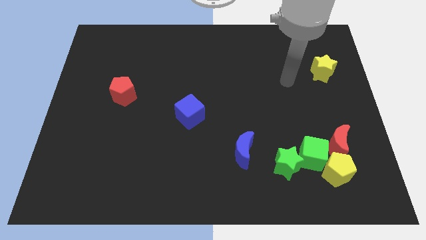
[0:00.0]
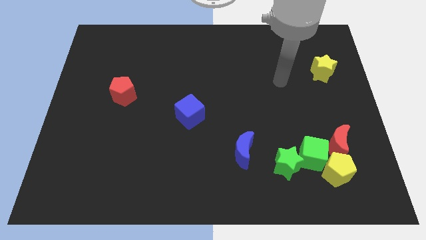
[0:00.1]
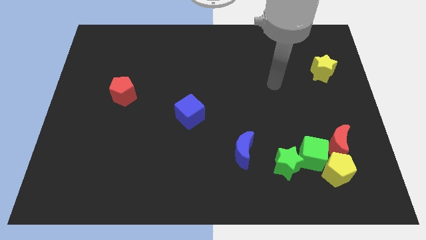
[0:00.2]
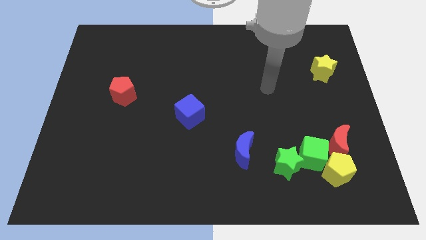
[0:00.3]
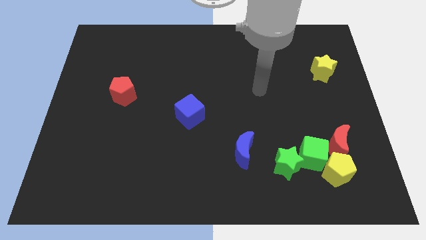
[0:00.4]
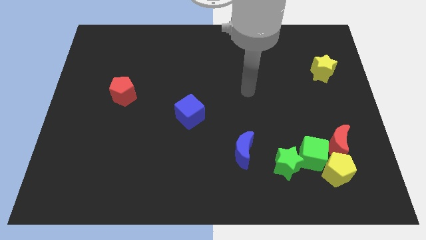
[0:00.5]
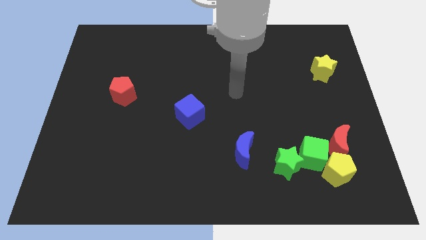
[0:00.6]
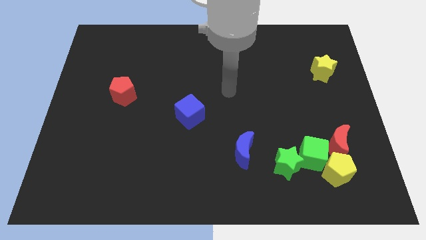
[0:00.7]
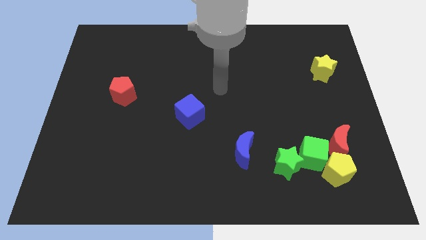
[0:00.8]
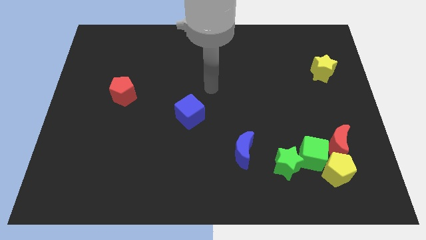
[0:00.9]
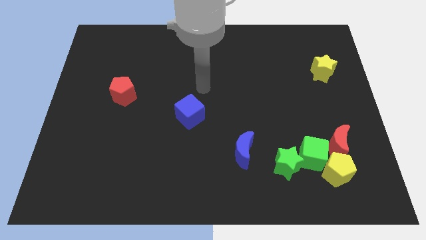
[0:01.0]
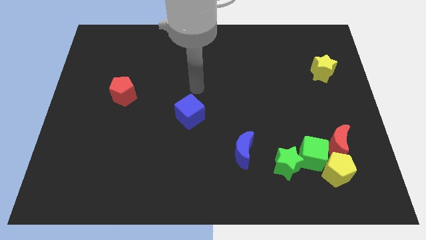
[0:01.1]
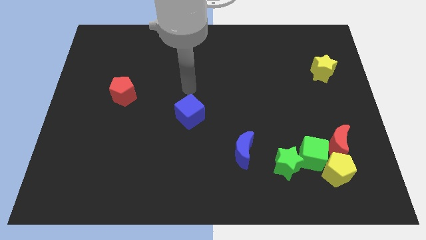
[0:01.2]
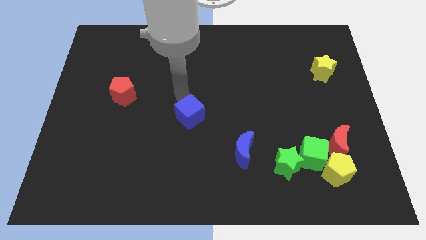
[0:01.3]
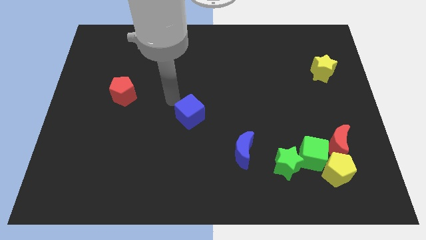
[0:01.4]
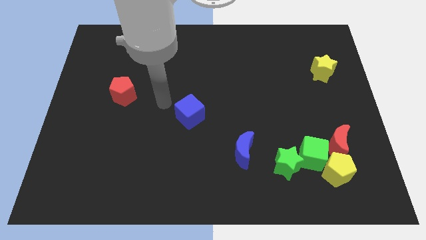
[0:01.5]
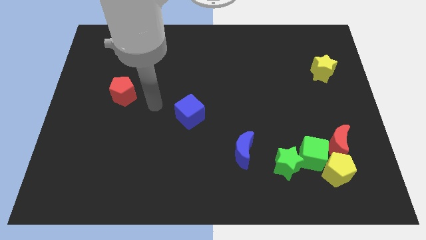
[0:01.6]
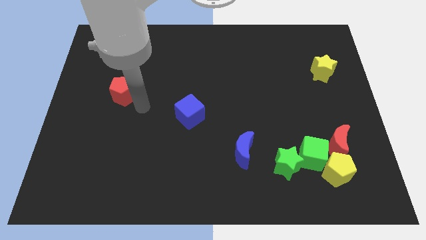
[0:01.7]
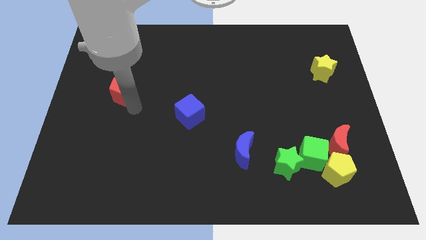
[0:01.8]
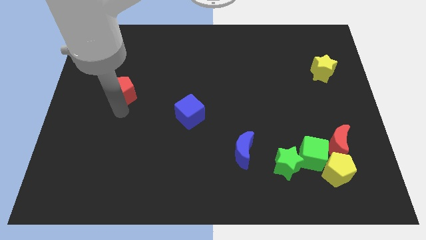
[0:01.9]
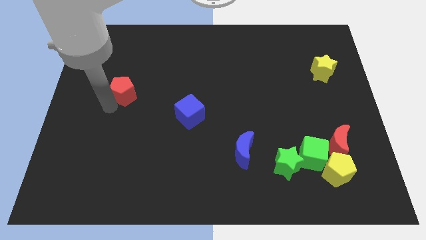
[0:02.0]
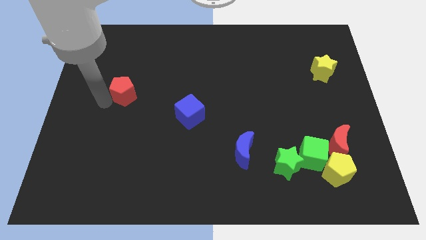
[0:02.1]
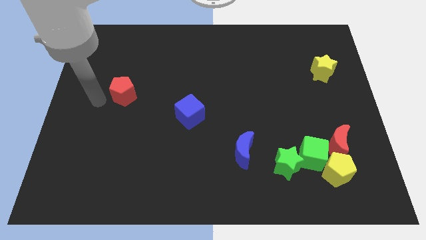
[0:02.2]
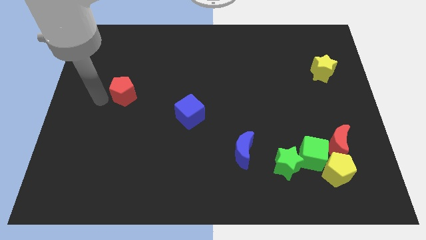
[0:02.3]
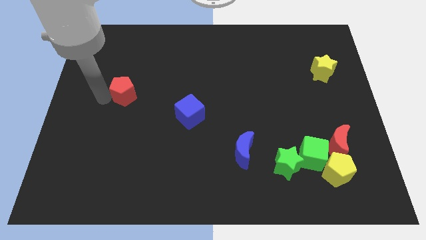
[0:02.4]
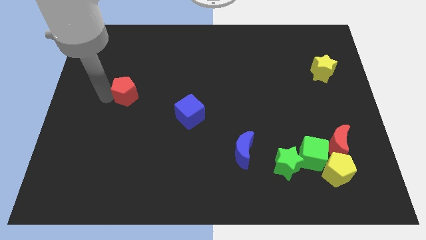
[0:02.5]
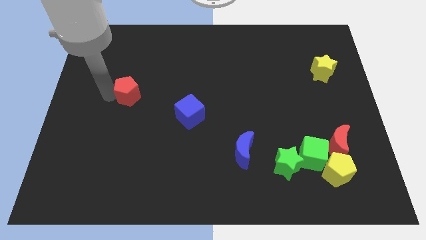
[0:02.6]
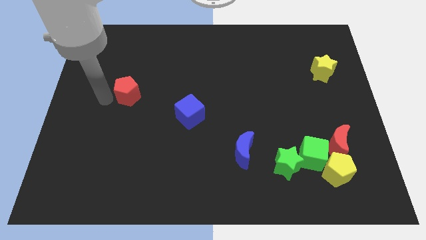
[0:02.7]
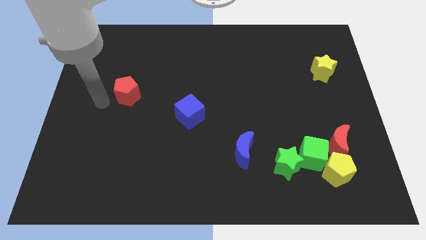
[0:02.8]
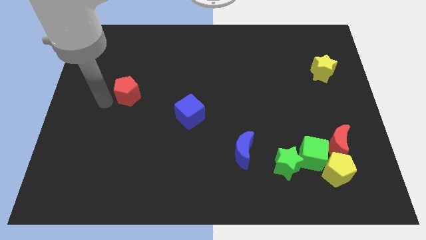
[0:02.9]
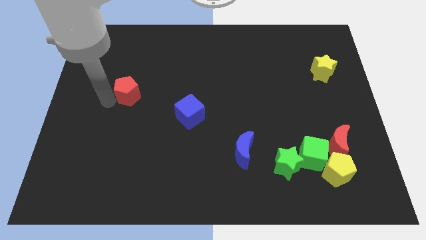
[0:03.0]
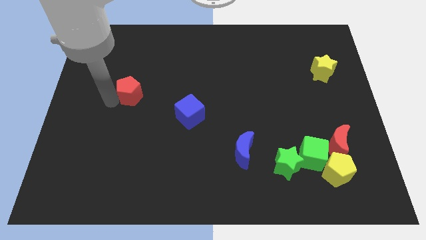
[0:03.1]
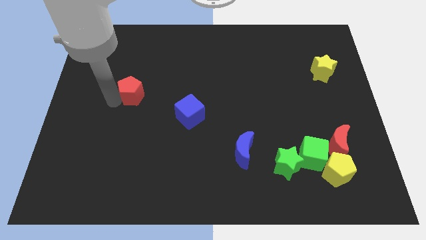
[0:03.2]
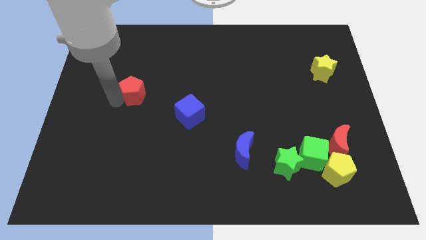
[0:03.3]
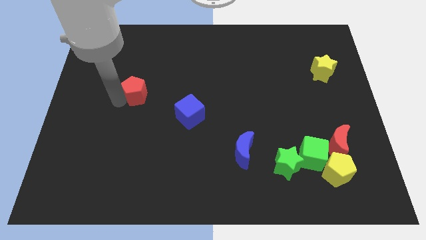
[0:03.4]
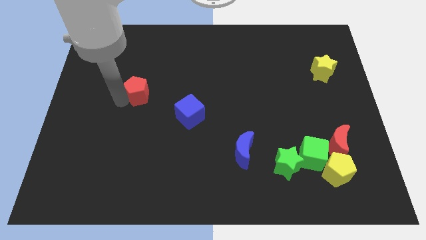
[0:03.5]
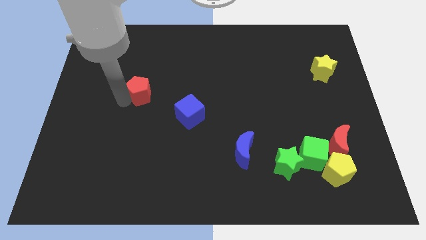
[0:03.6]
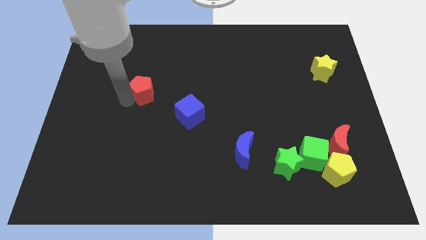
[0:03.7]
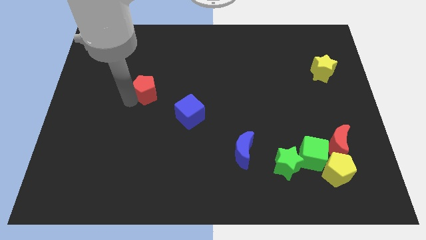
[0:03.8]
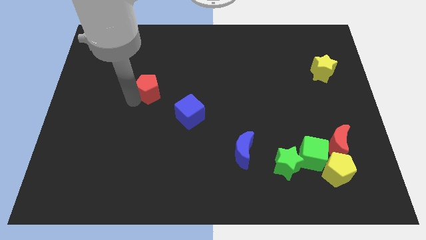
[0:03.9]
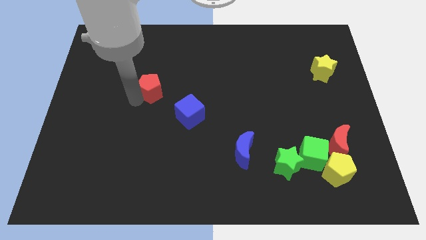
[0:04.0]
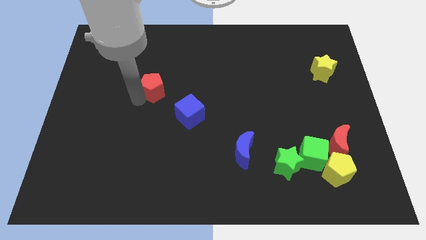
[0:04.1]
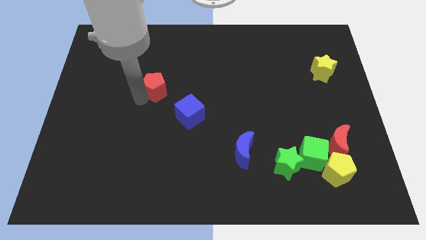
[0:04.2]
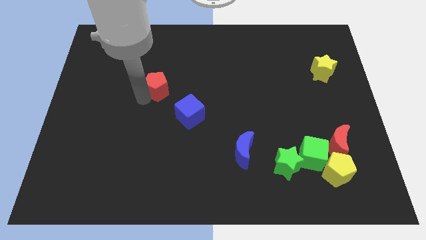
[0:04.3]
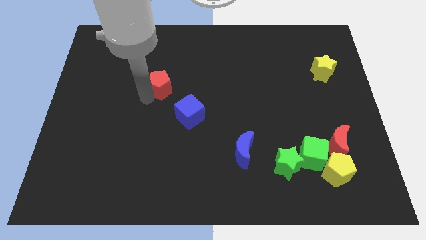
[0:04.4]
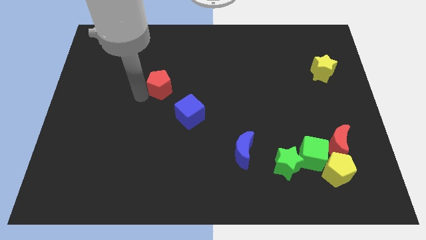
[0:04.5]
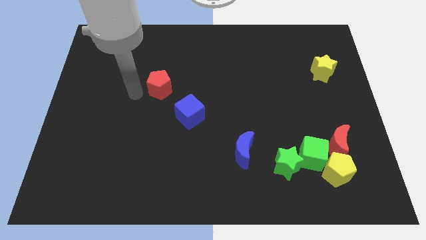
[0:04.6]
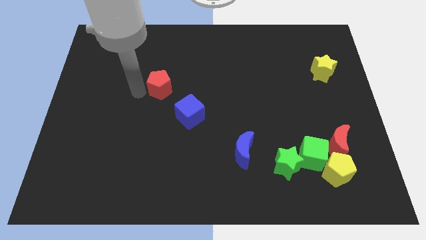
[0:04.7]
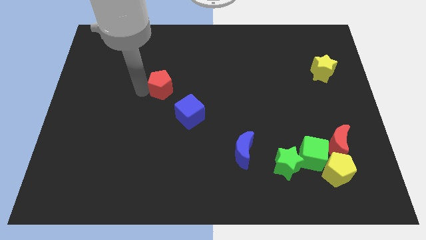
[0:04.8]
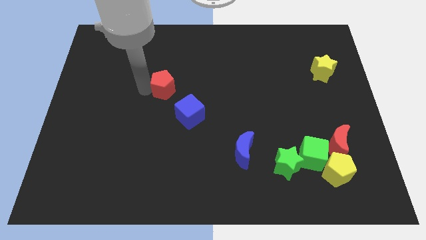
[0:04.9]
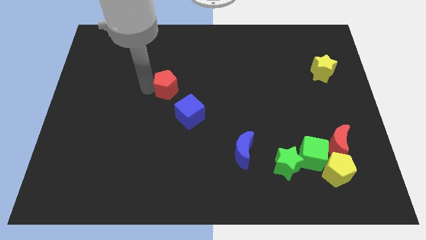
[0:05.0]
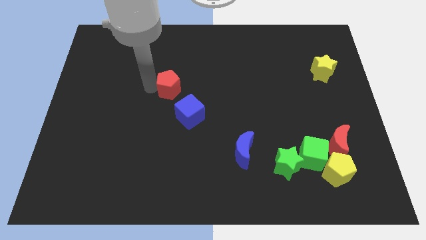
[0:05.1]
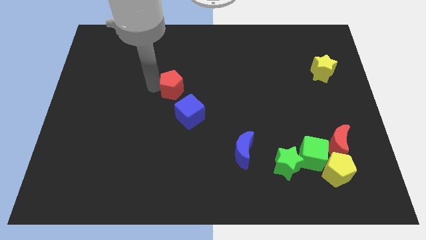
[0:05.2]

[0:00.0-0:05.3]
move the red pentagon to the top side of the blue cube

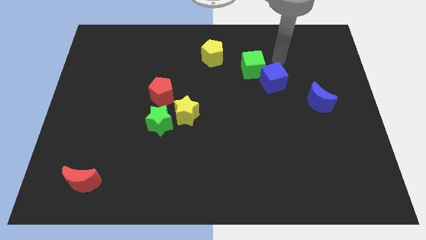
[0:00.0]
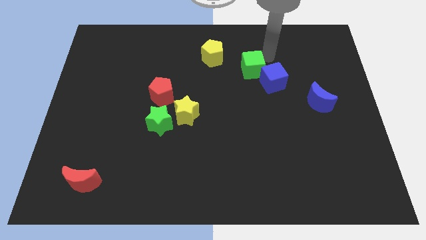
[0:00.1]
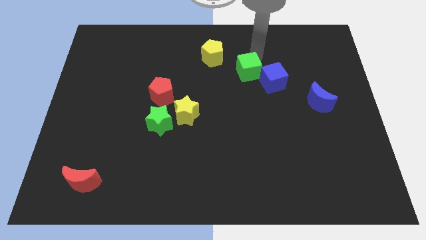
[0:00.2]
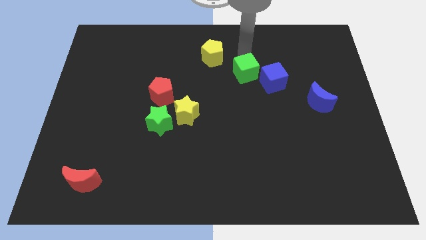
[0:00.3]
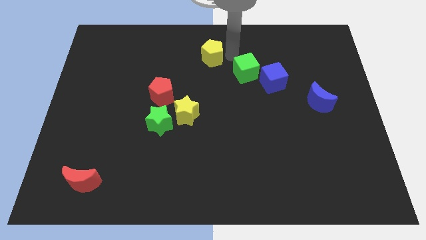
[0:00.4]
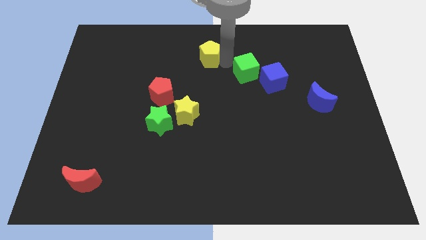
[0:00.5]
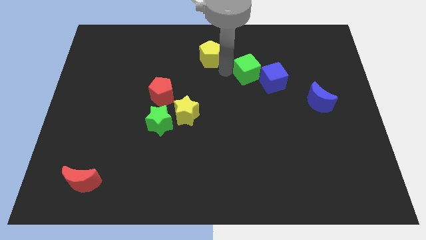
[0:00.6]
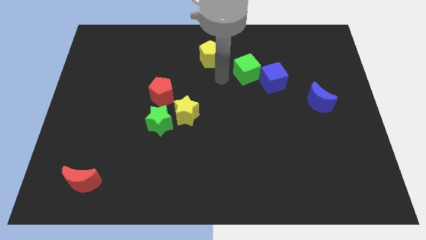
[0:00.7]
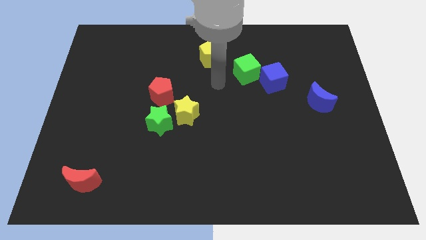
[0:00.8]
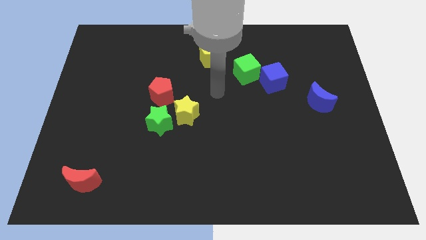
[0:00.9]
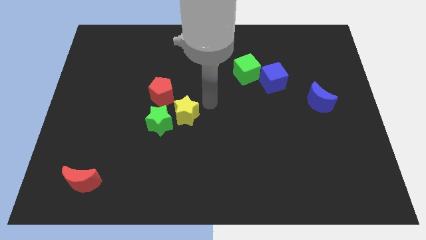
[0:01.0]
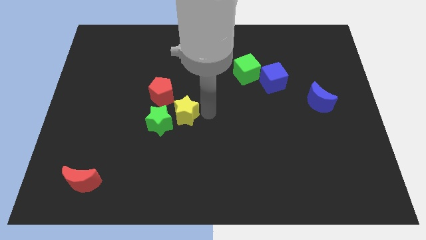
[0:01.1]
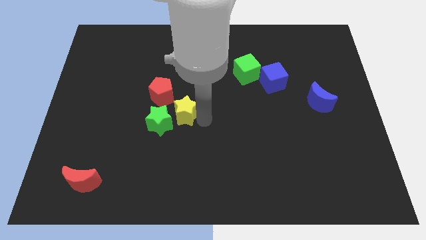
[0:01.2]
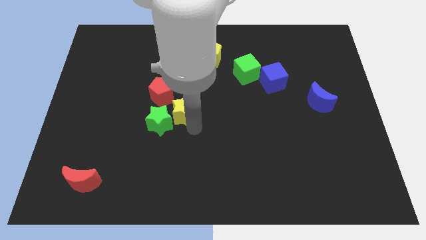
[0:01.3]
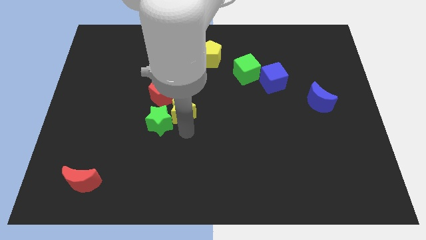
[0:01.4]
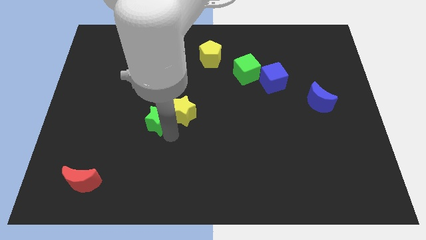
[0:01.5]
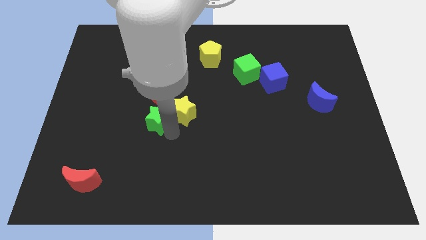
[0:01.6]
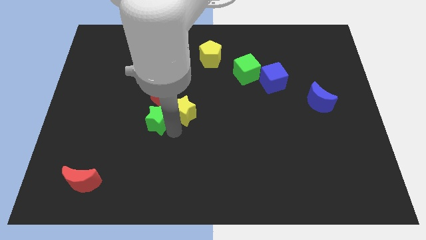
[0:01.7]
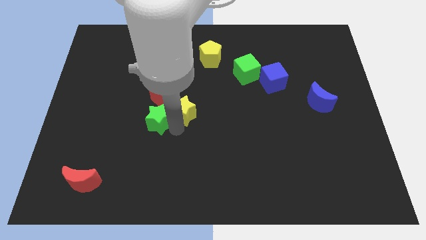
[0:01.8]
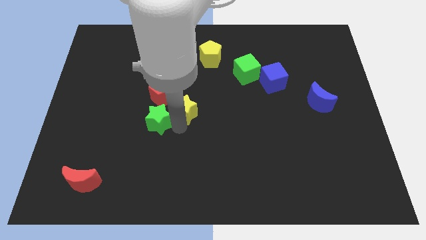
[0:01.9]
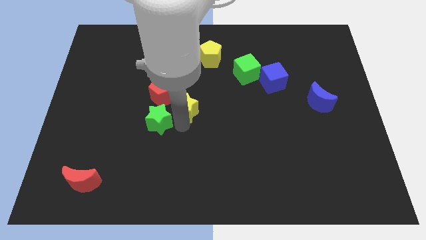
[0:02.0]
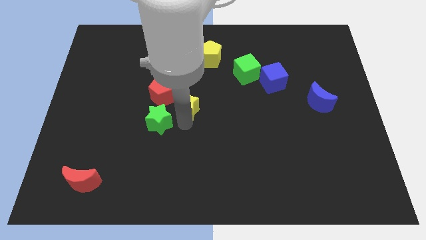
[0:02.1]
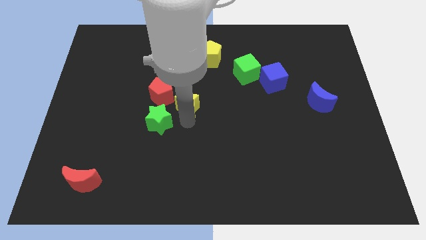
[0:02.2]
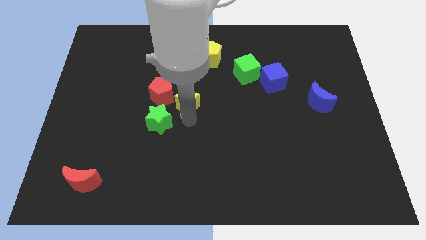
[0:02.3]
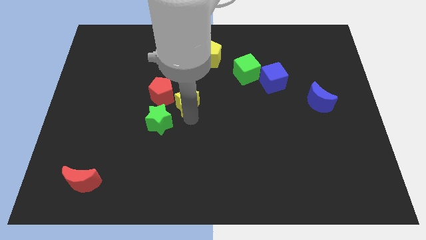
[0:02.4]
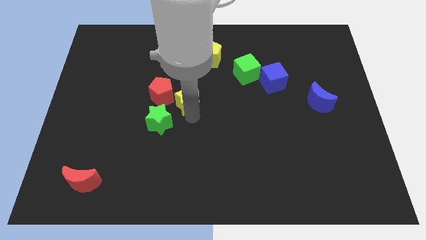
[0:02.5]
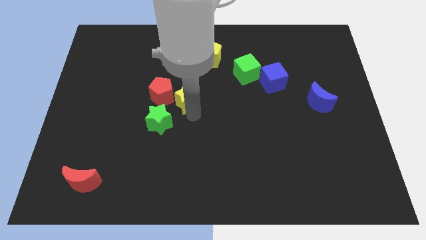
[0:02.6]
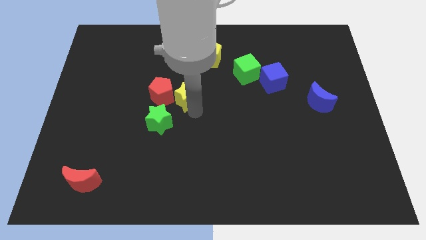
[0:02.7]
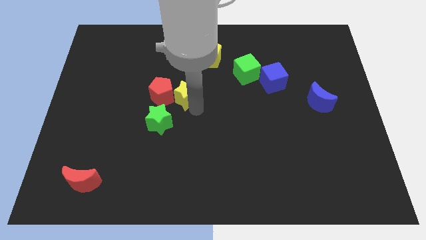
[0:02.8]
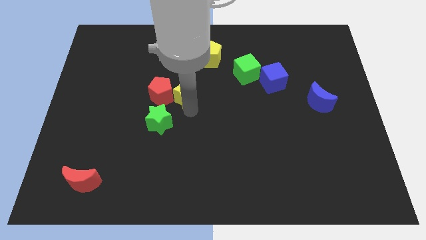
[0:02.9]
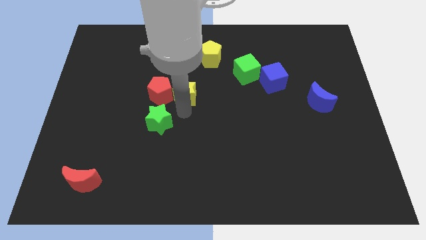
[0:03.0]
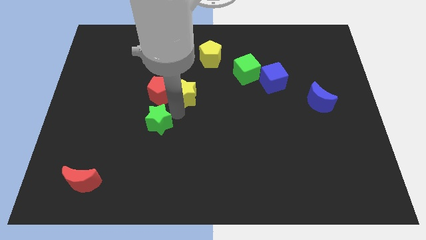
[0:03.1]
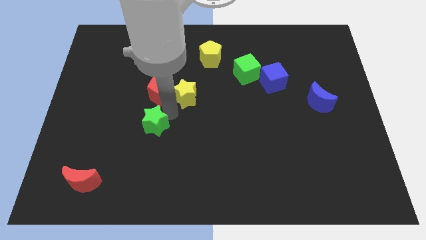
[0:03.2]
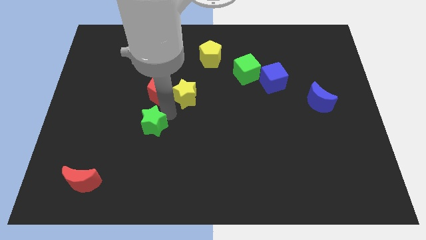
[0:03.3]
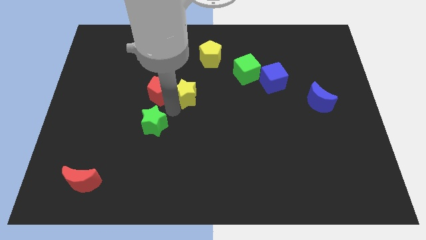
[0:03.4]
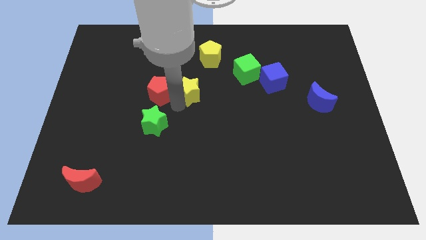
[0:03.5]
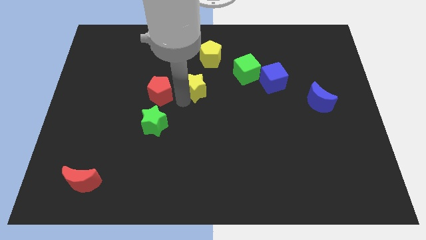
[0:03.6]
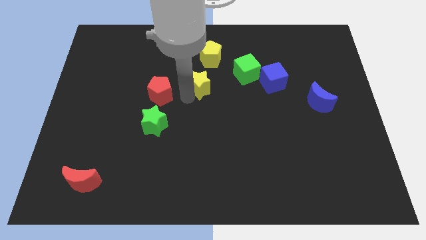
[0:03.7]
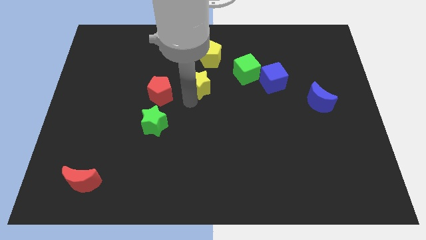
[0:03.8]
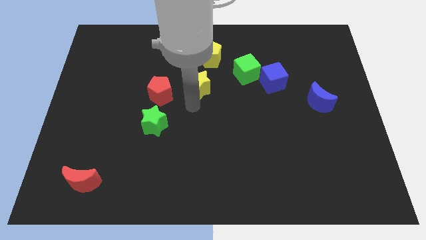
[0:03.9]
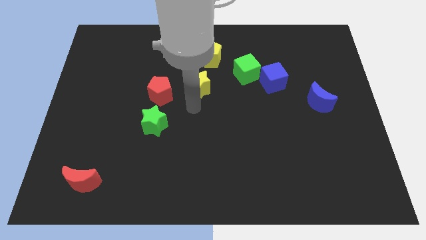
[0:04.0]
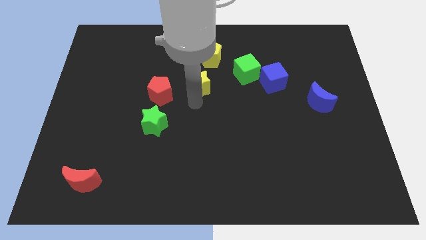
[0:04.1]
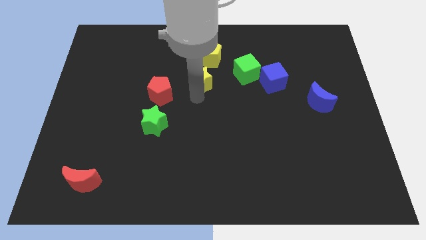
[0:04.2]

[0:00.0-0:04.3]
move the yellow star left of the green cube
